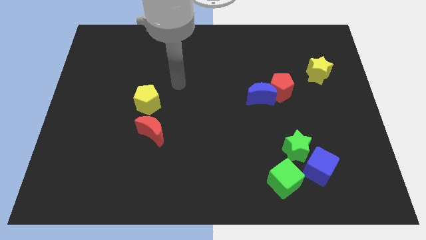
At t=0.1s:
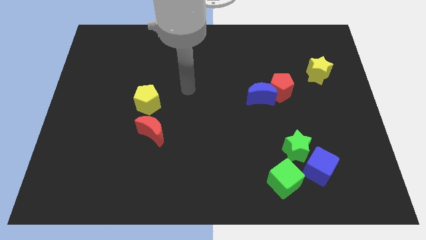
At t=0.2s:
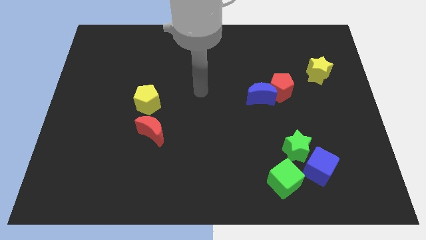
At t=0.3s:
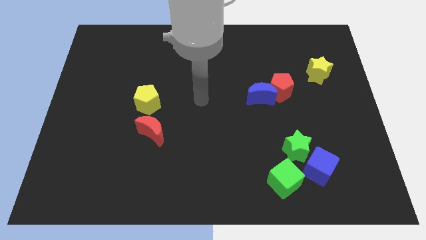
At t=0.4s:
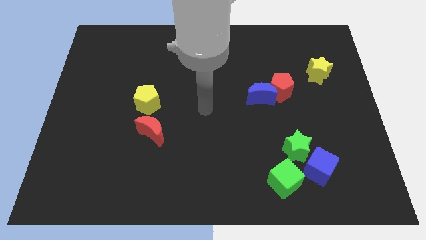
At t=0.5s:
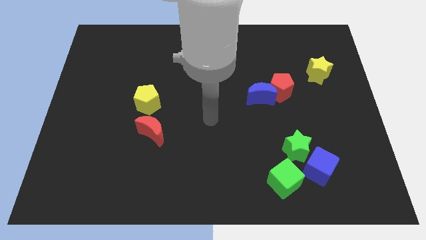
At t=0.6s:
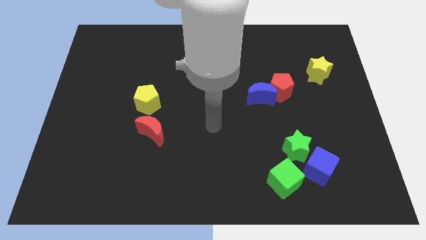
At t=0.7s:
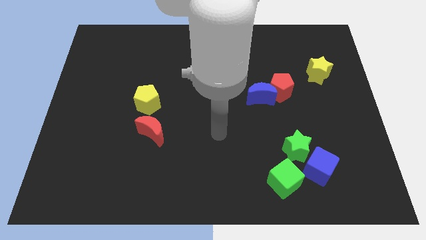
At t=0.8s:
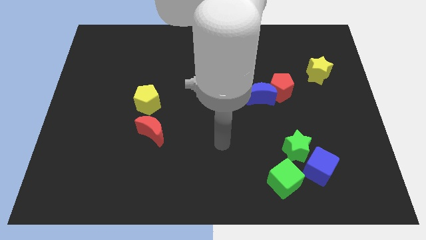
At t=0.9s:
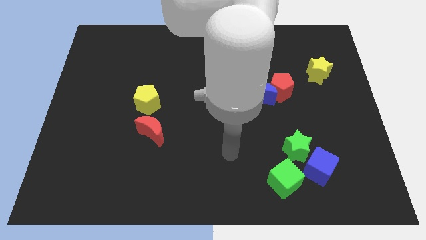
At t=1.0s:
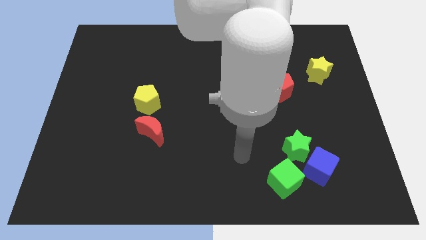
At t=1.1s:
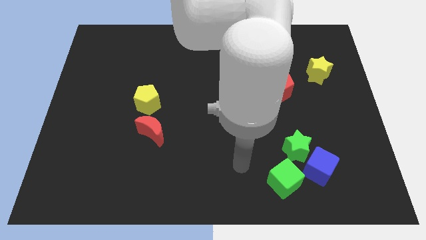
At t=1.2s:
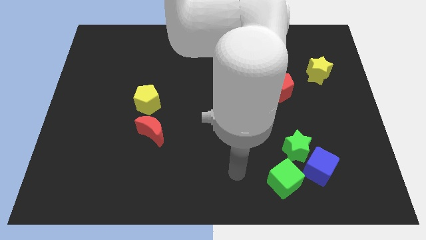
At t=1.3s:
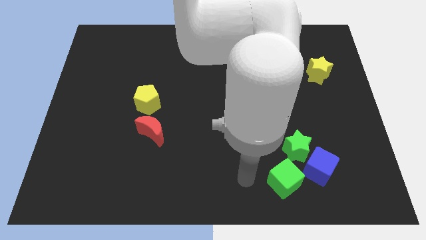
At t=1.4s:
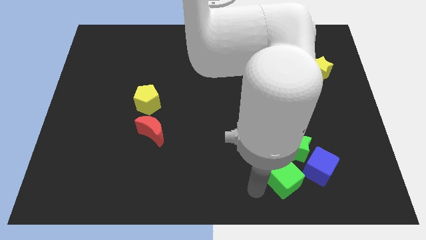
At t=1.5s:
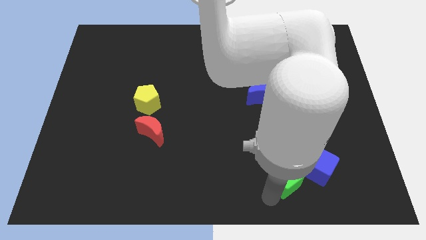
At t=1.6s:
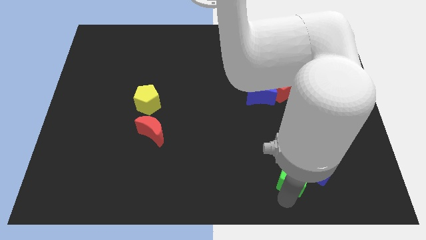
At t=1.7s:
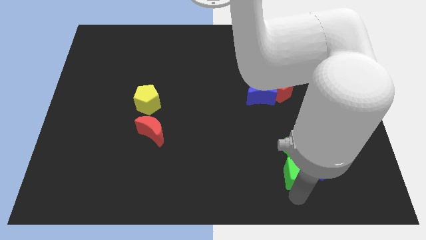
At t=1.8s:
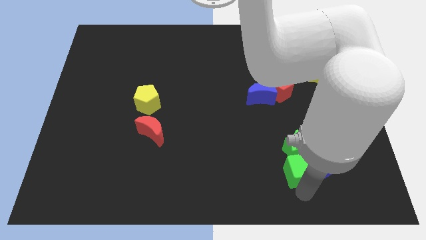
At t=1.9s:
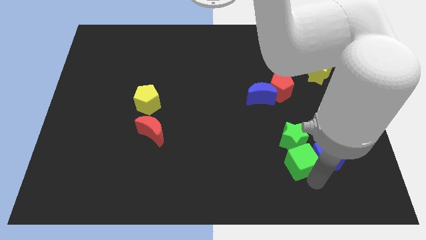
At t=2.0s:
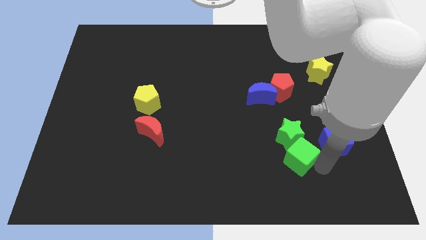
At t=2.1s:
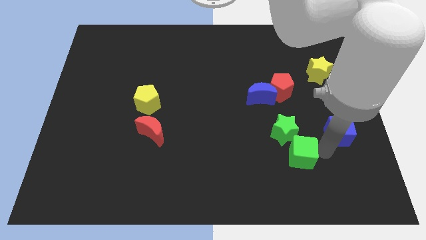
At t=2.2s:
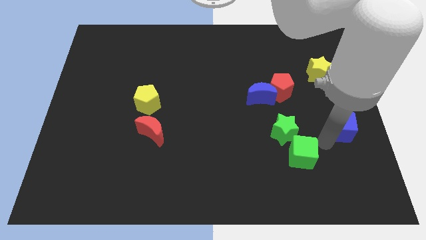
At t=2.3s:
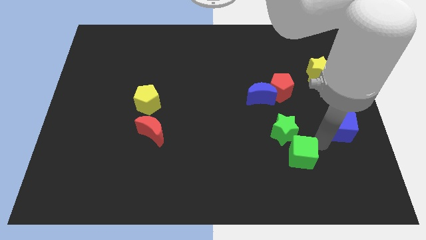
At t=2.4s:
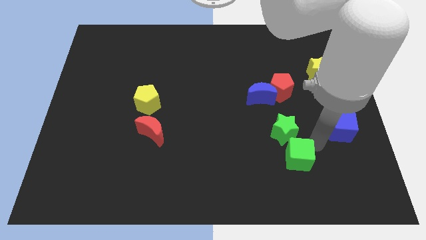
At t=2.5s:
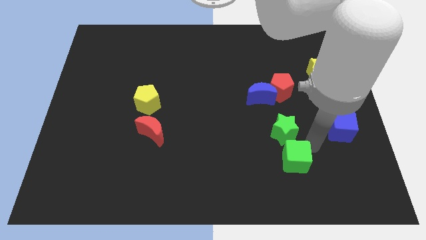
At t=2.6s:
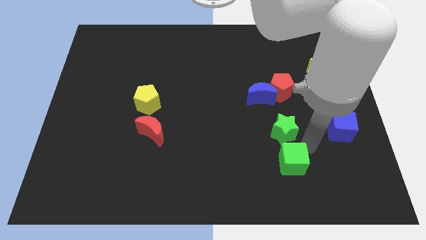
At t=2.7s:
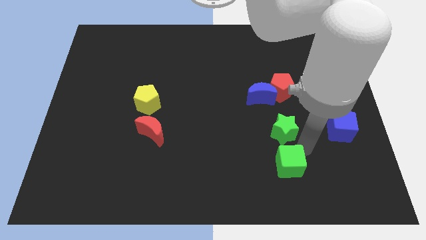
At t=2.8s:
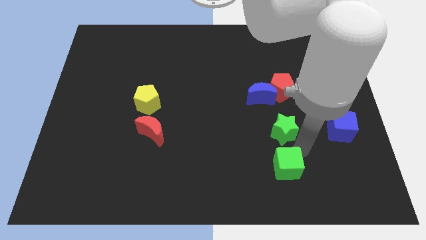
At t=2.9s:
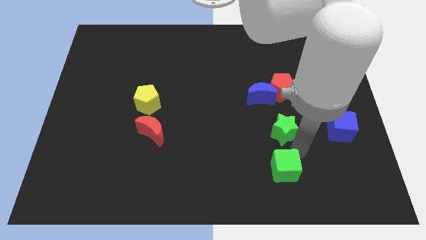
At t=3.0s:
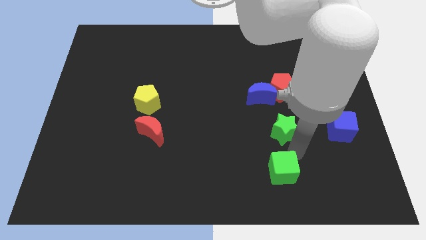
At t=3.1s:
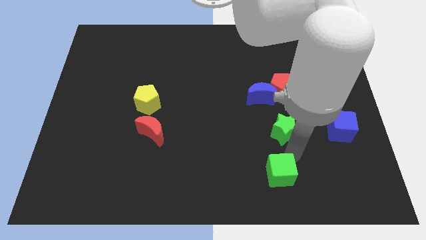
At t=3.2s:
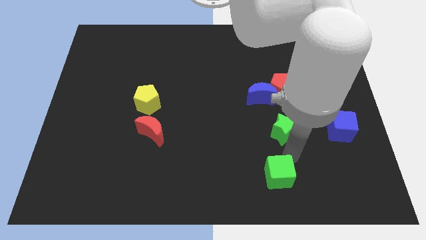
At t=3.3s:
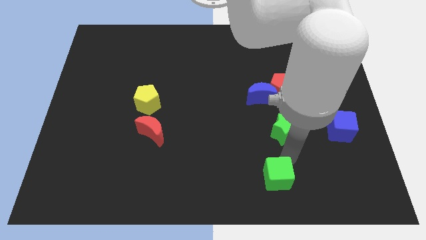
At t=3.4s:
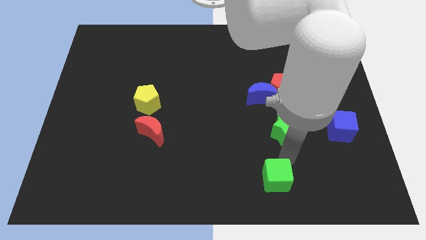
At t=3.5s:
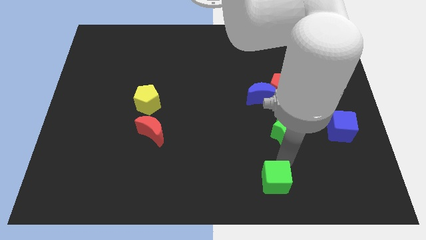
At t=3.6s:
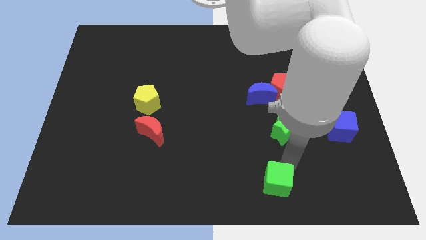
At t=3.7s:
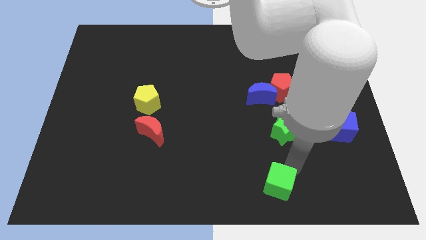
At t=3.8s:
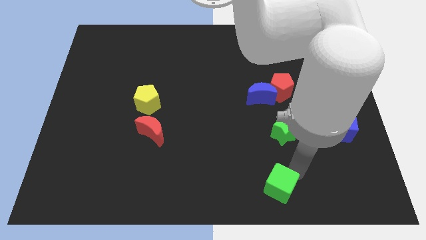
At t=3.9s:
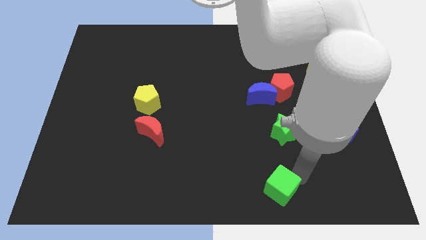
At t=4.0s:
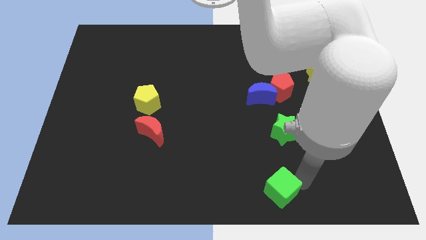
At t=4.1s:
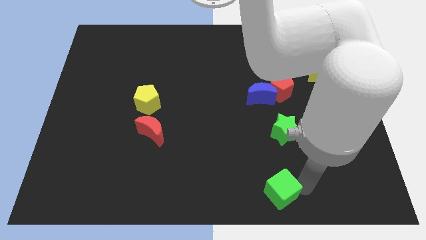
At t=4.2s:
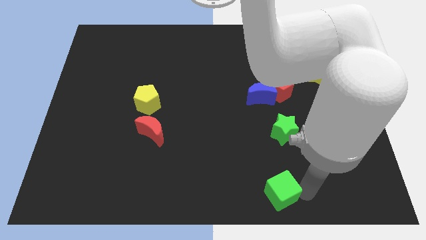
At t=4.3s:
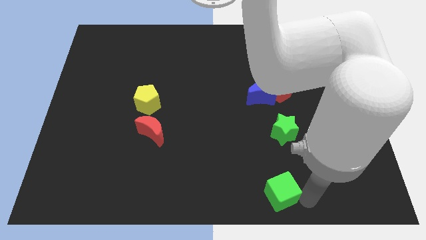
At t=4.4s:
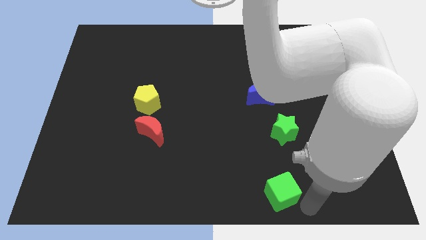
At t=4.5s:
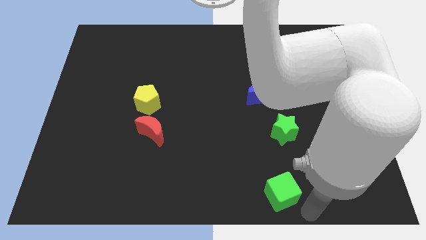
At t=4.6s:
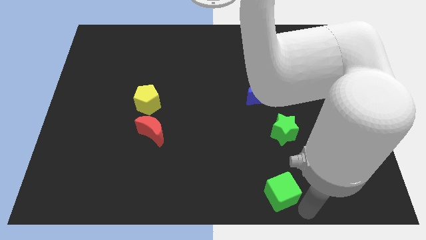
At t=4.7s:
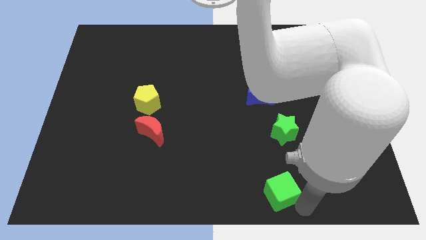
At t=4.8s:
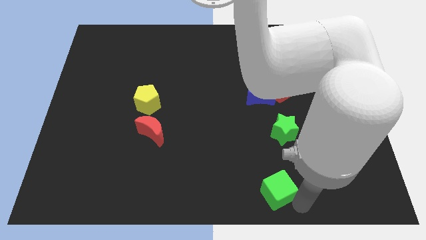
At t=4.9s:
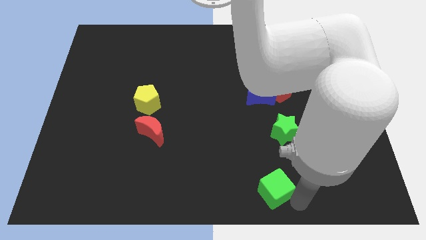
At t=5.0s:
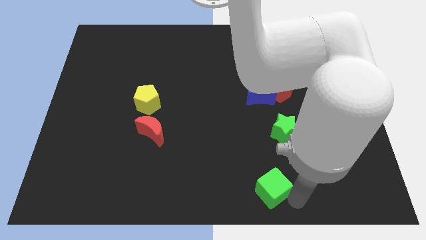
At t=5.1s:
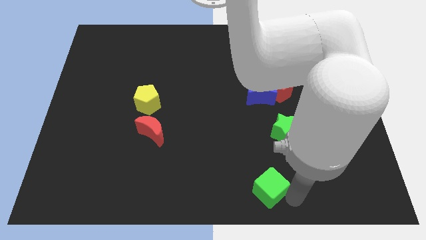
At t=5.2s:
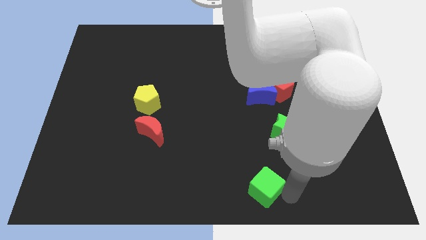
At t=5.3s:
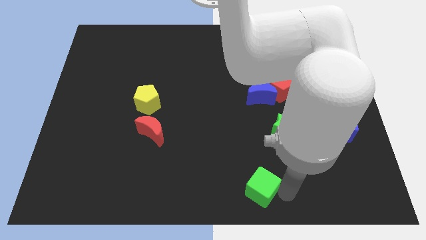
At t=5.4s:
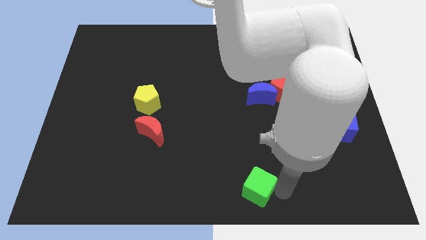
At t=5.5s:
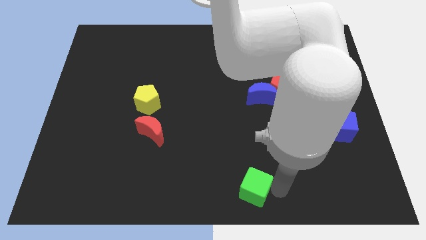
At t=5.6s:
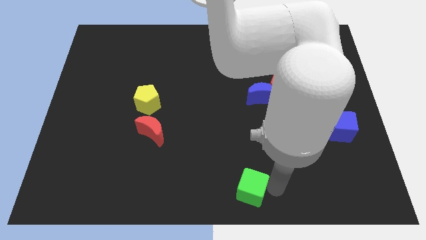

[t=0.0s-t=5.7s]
slightly push the green cube left

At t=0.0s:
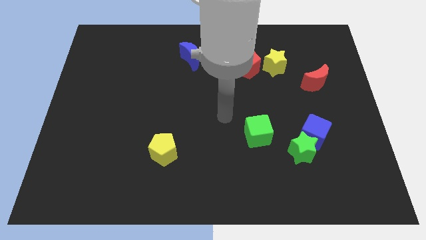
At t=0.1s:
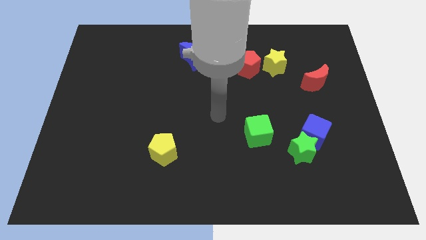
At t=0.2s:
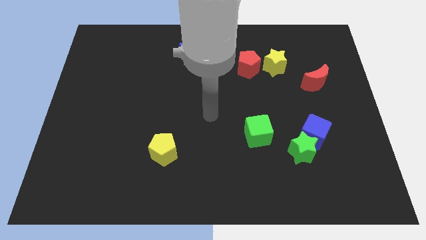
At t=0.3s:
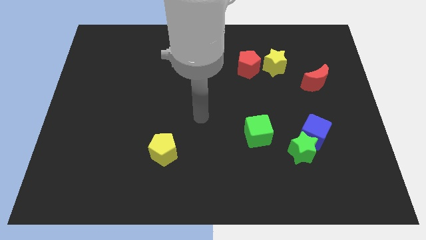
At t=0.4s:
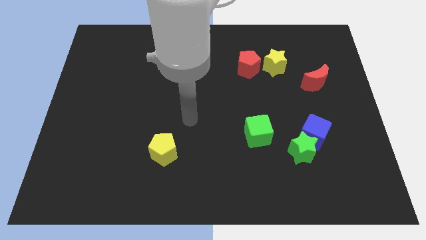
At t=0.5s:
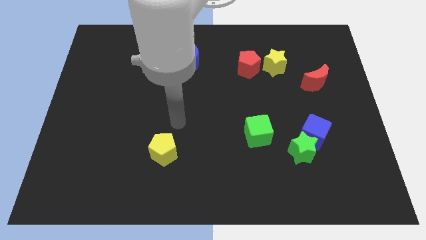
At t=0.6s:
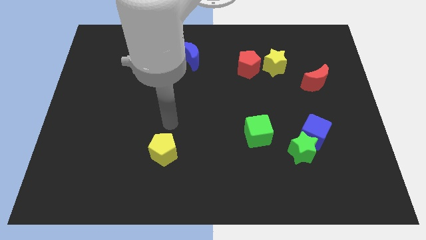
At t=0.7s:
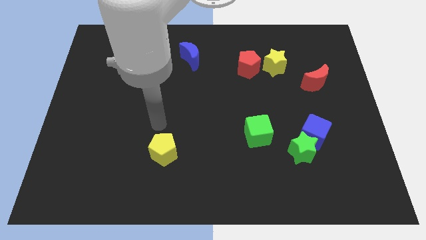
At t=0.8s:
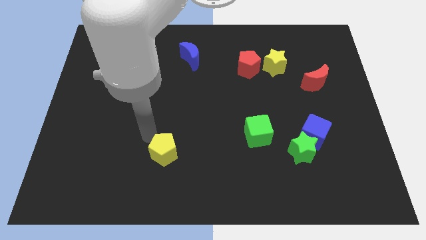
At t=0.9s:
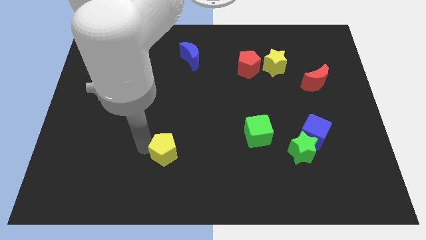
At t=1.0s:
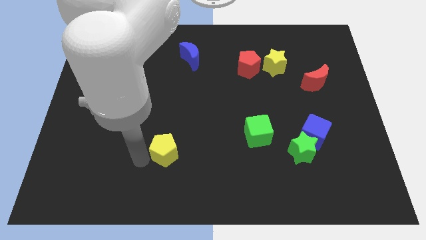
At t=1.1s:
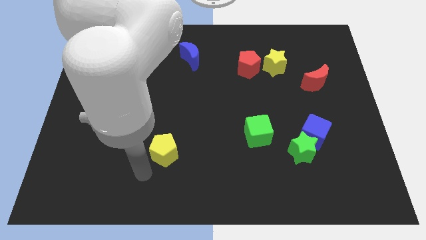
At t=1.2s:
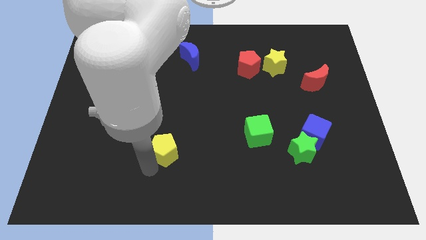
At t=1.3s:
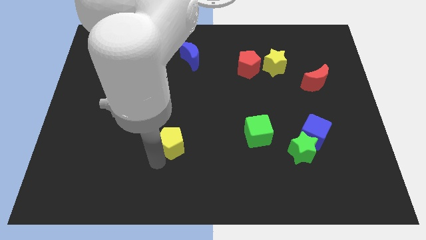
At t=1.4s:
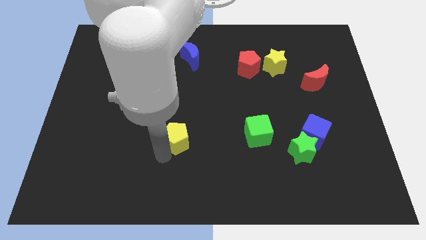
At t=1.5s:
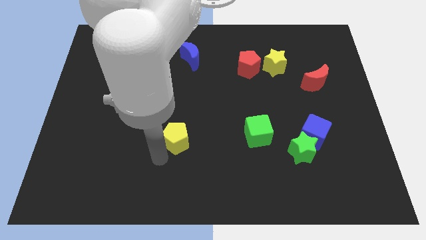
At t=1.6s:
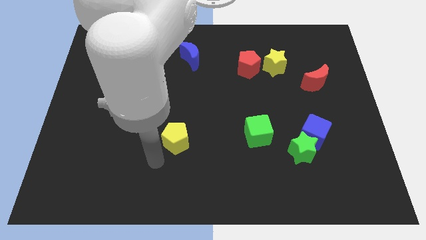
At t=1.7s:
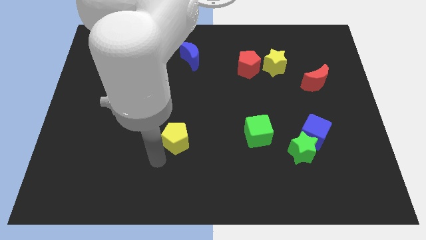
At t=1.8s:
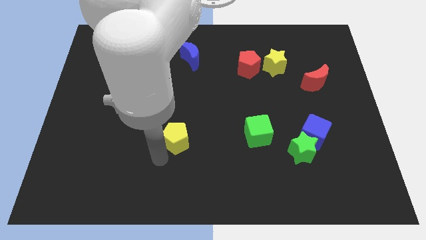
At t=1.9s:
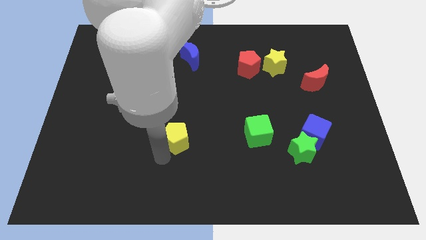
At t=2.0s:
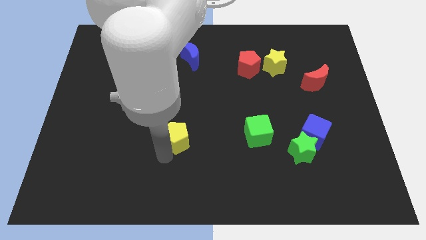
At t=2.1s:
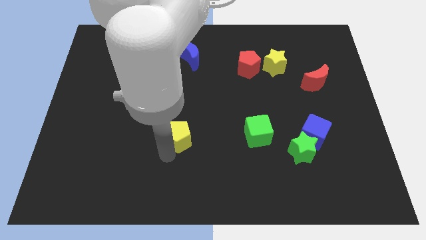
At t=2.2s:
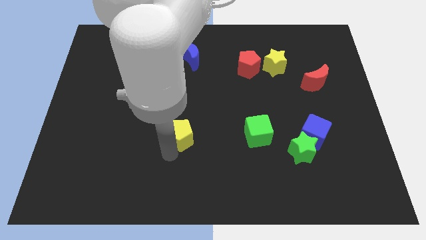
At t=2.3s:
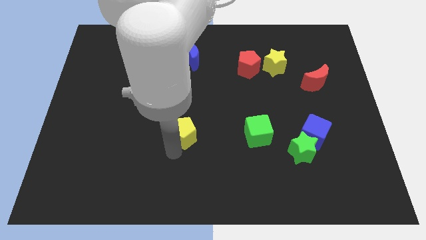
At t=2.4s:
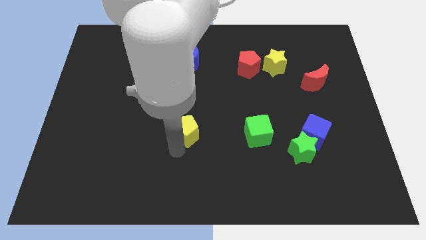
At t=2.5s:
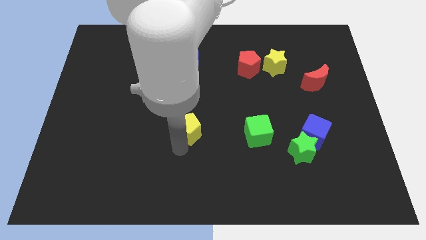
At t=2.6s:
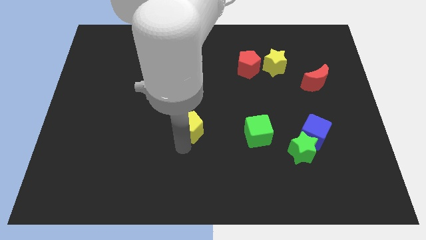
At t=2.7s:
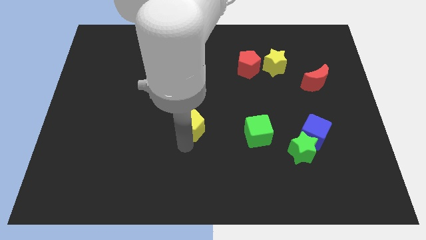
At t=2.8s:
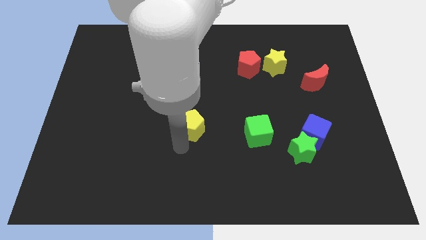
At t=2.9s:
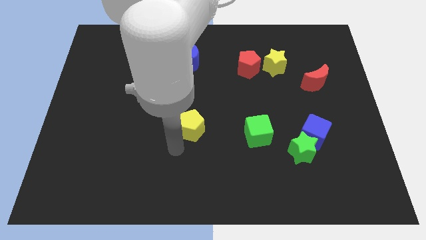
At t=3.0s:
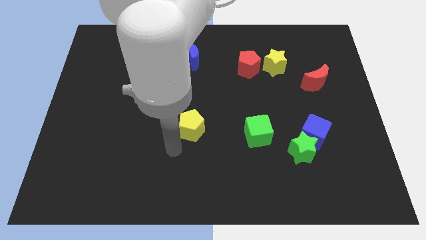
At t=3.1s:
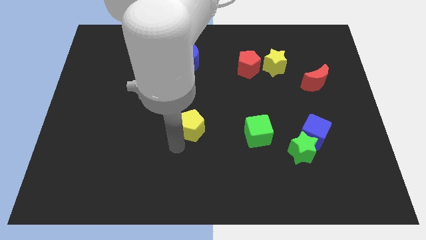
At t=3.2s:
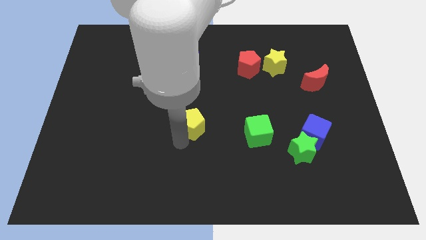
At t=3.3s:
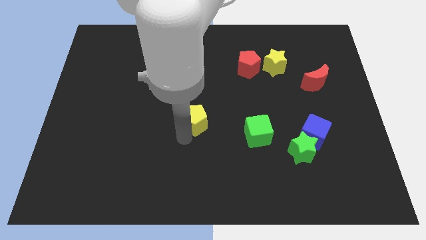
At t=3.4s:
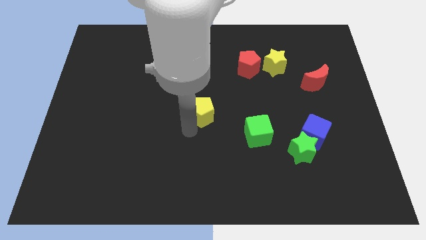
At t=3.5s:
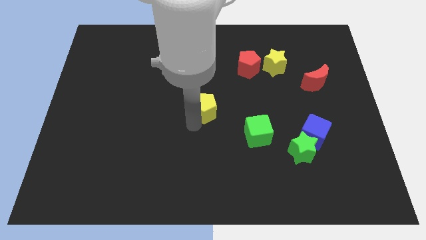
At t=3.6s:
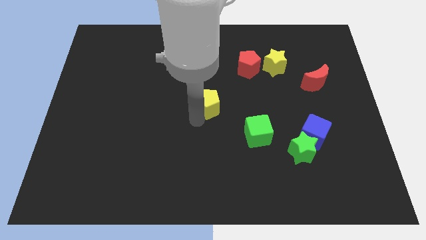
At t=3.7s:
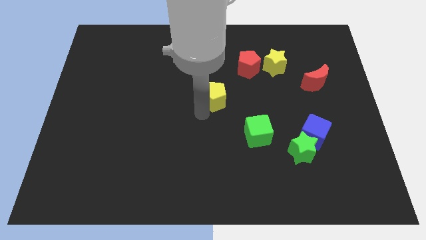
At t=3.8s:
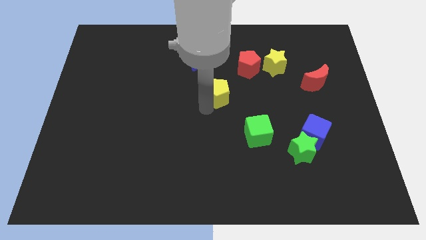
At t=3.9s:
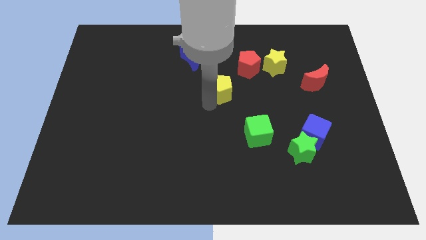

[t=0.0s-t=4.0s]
push the yellow pentagon upwards and then right
